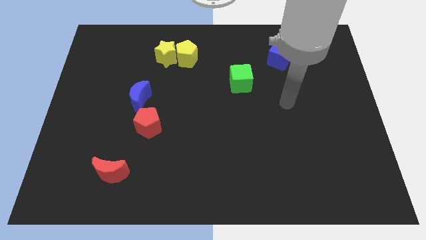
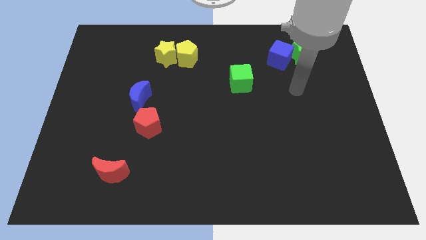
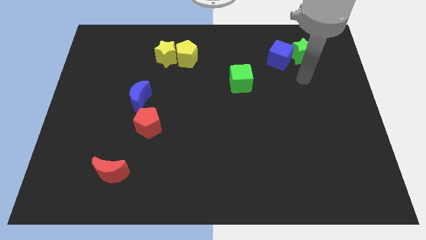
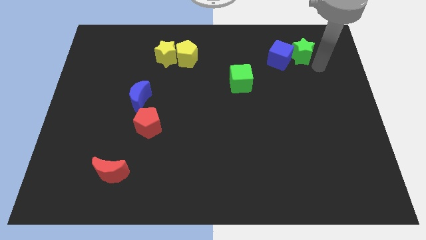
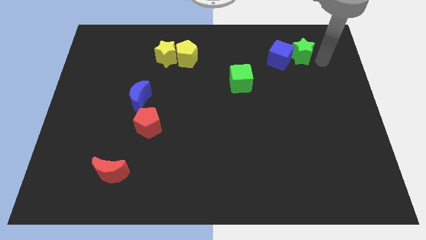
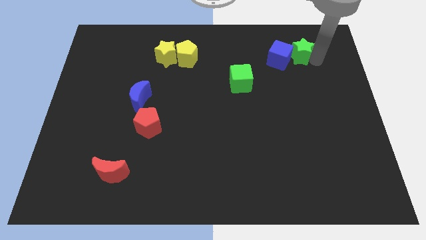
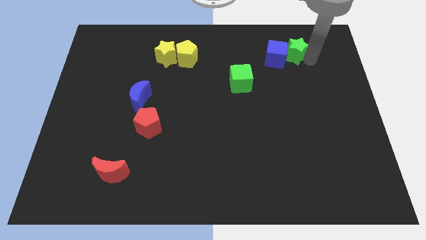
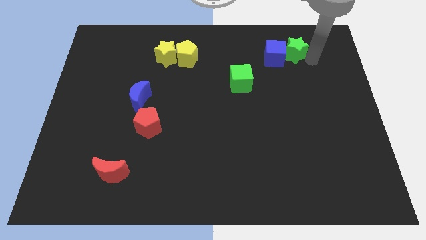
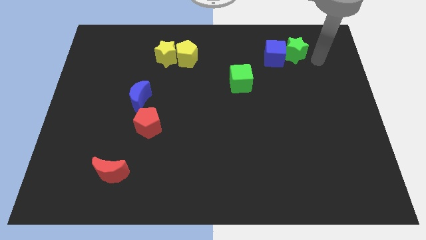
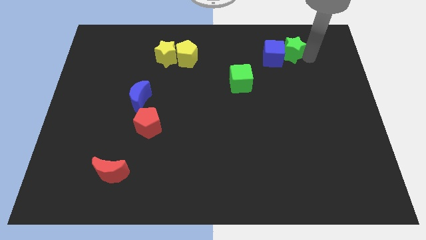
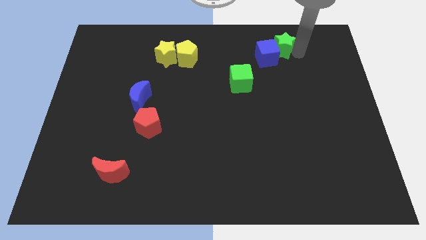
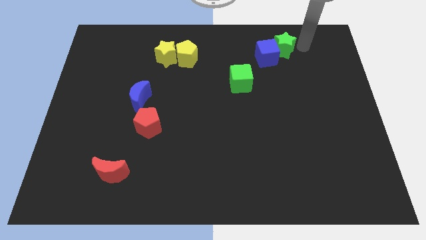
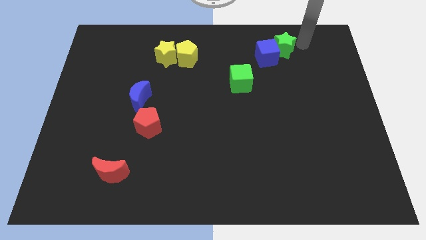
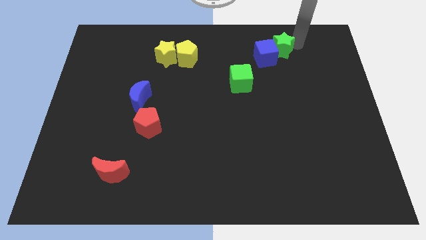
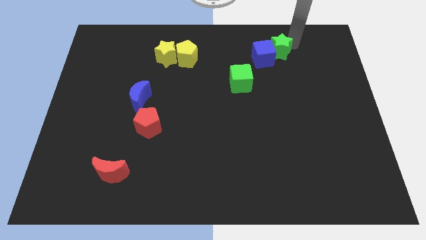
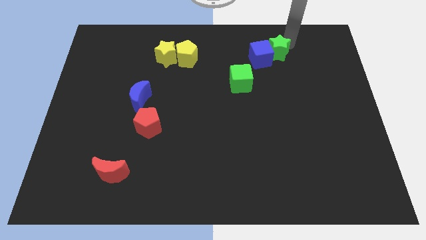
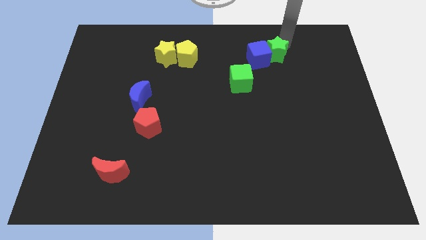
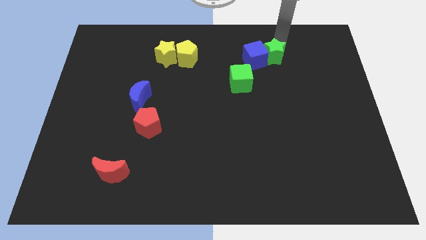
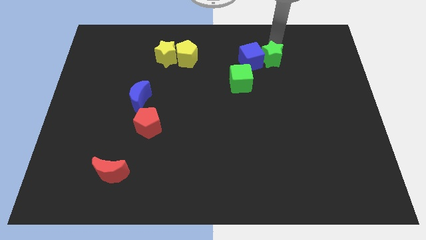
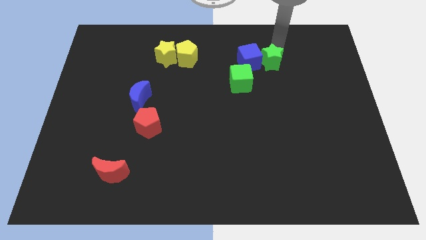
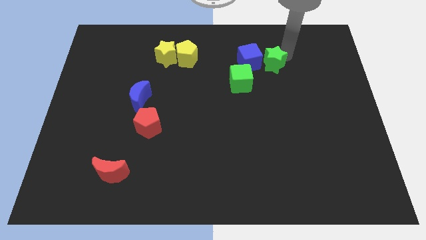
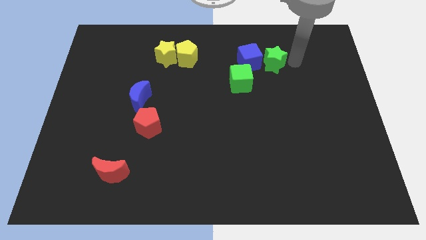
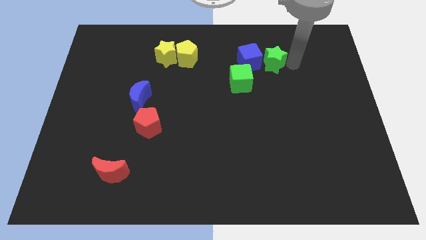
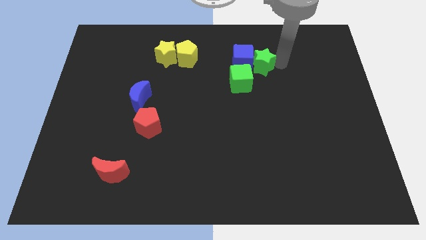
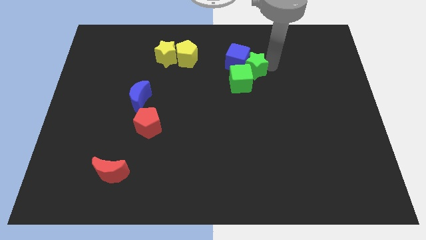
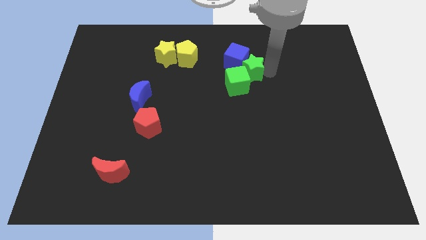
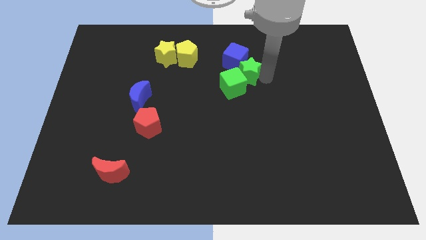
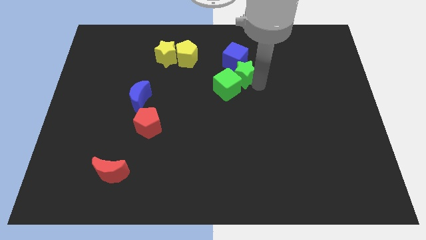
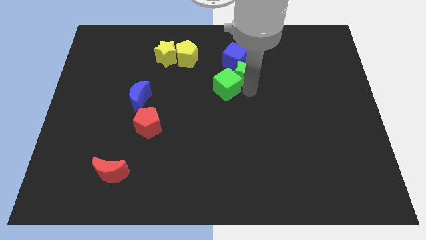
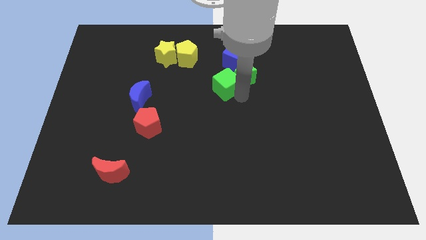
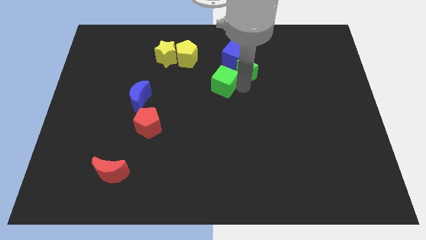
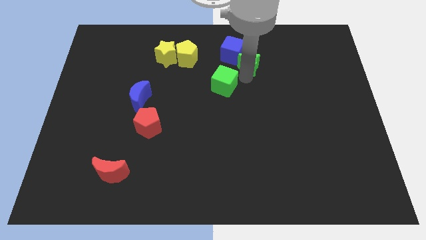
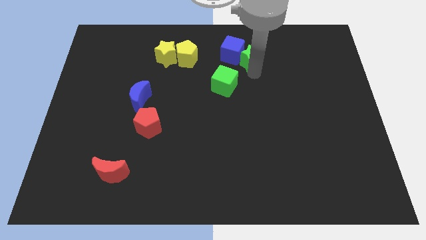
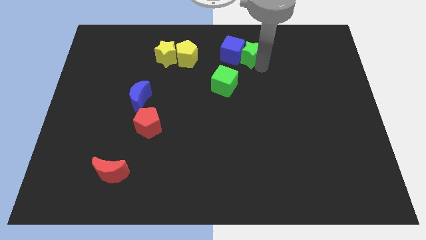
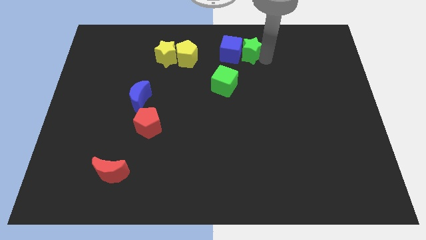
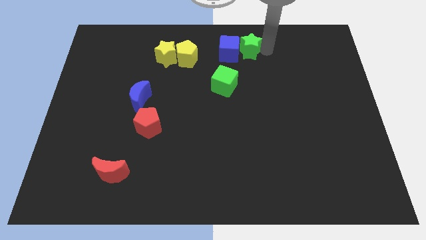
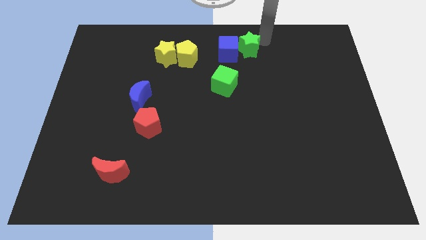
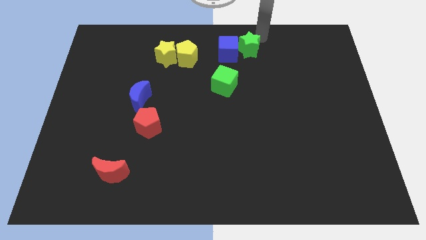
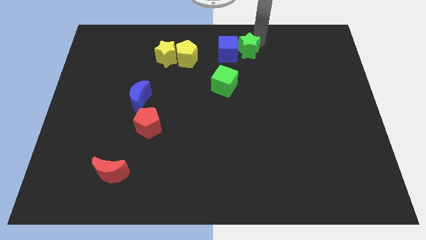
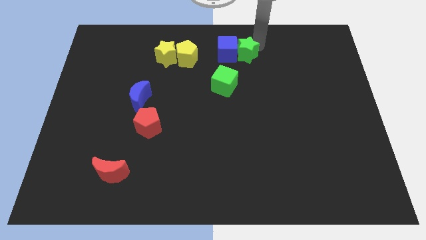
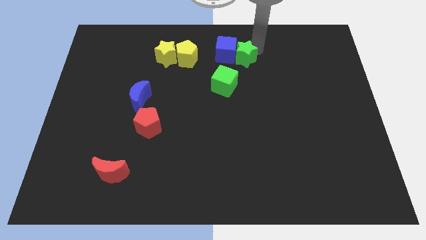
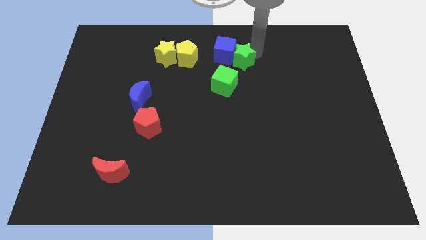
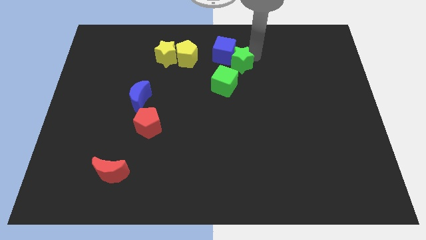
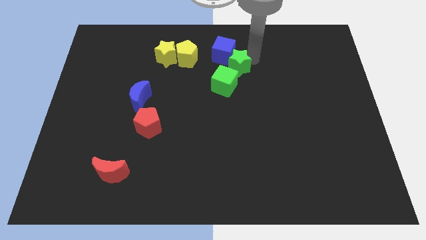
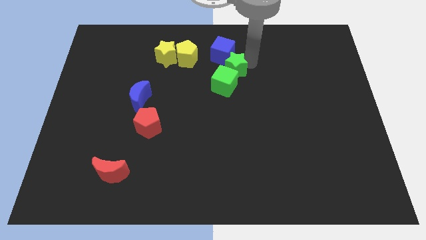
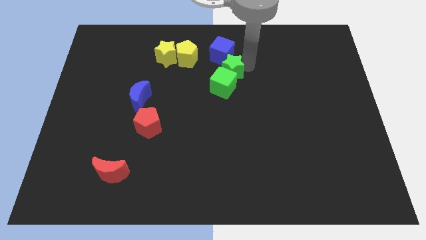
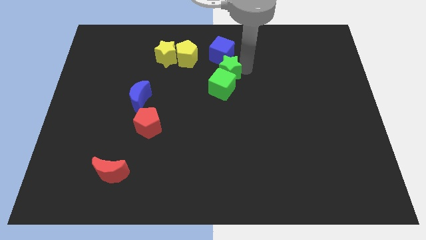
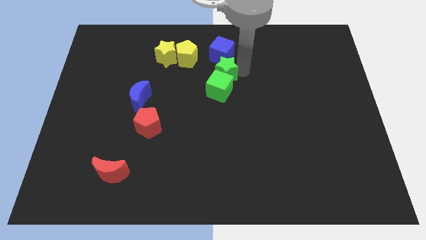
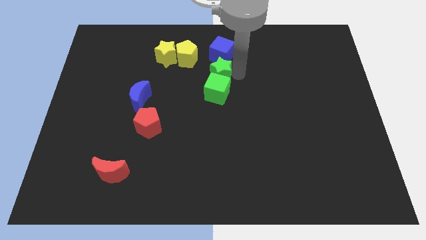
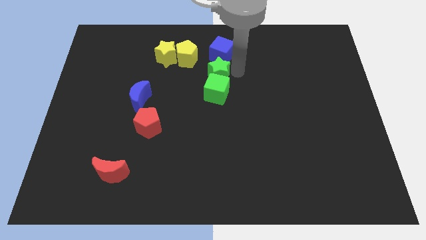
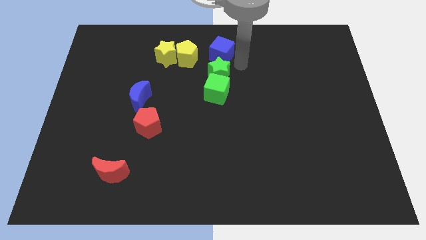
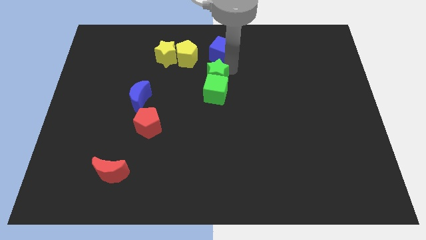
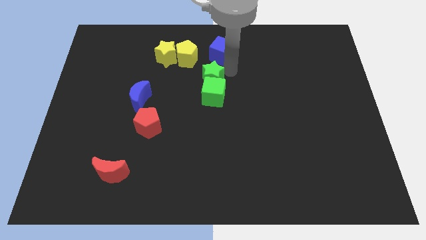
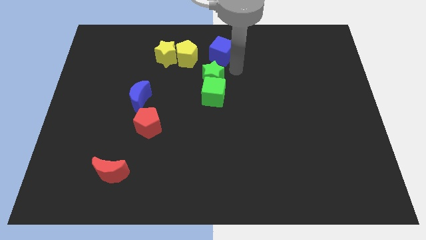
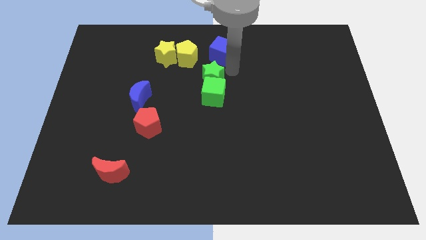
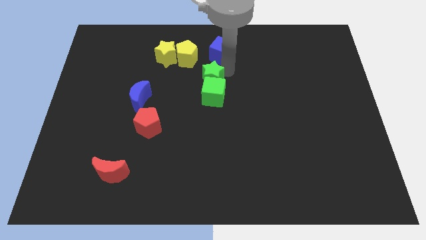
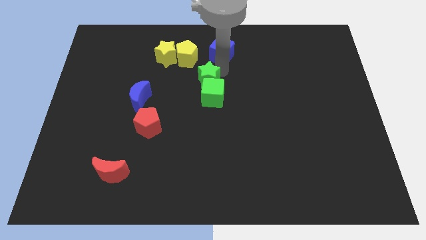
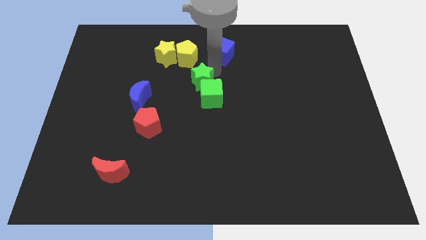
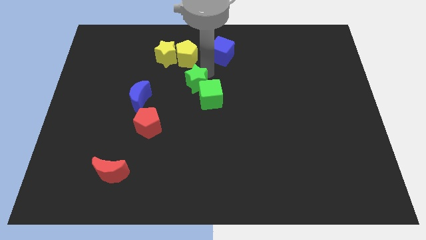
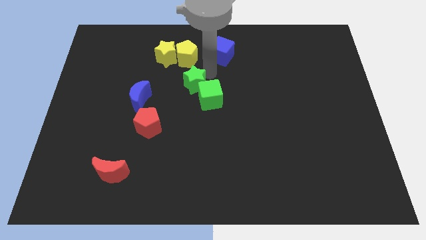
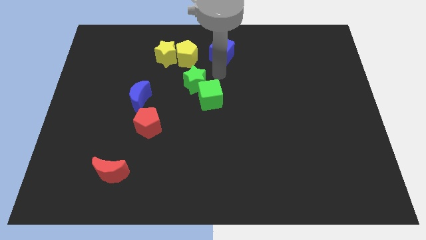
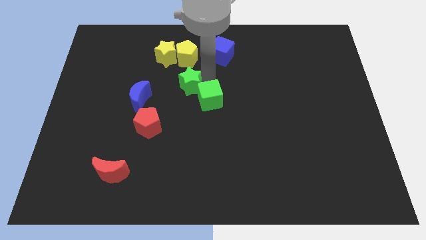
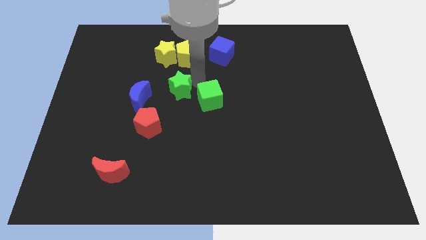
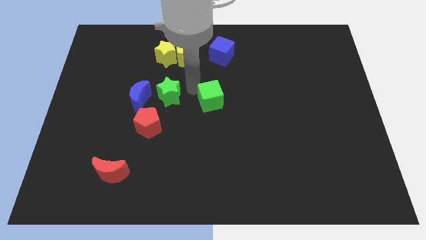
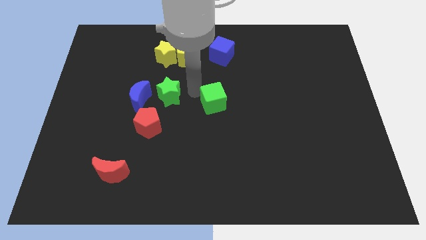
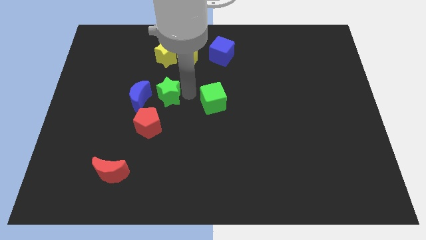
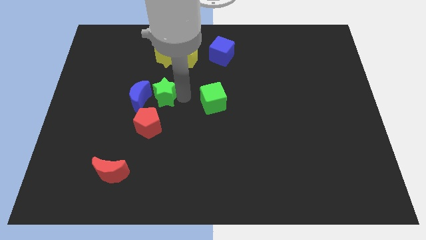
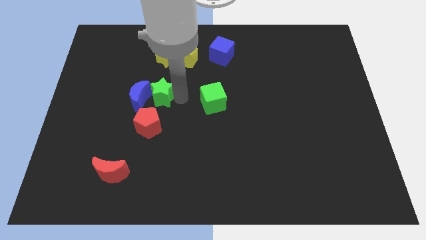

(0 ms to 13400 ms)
push the green star next to the blue moon
